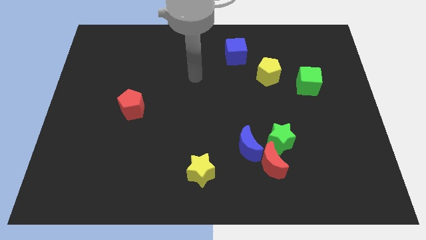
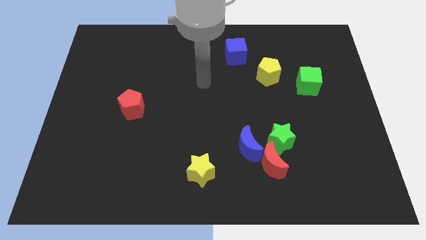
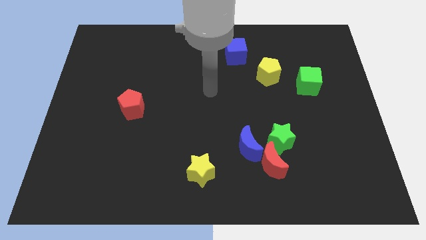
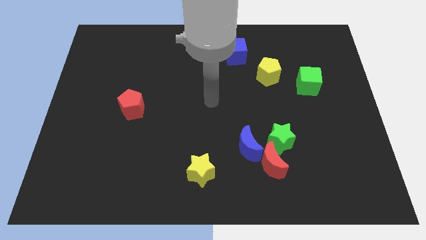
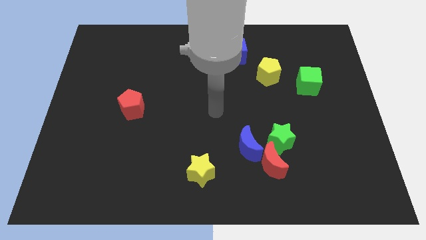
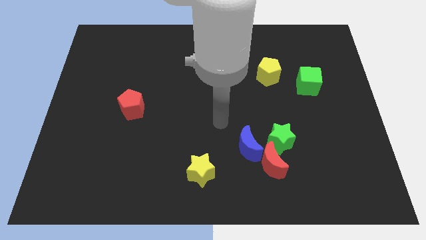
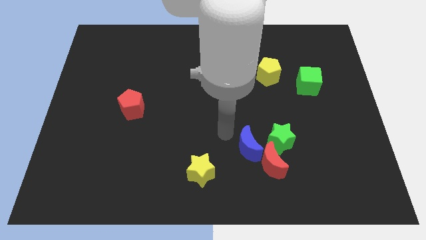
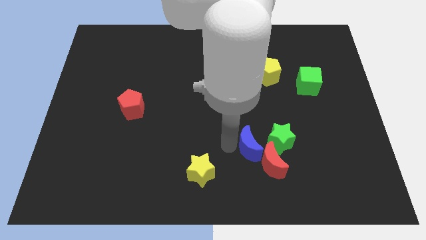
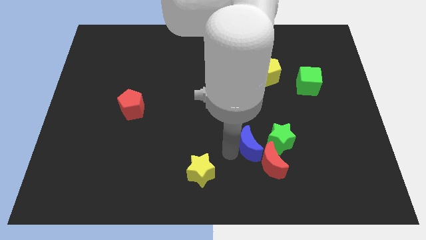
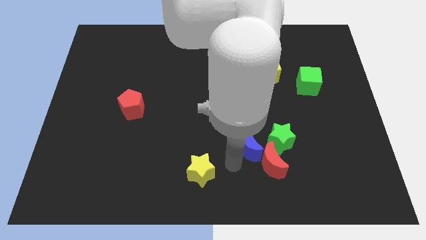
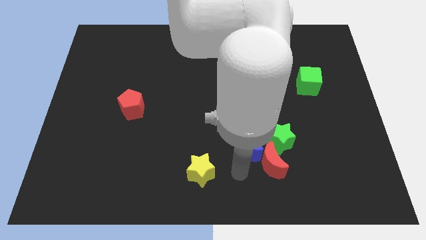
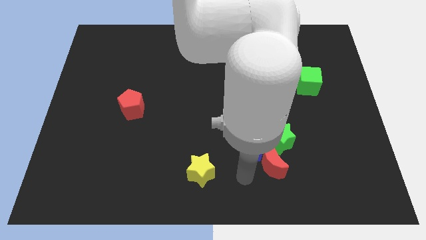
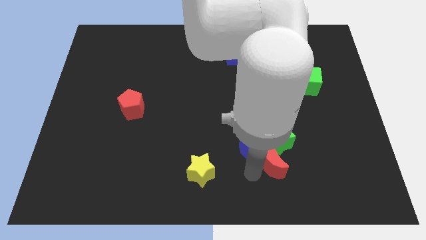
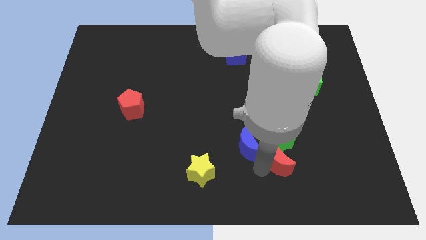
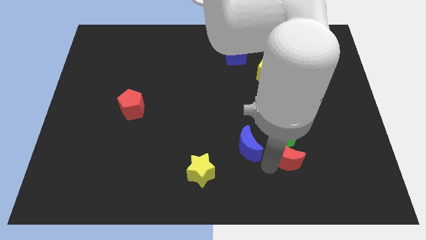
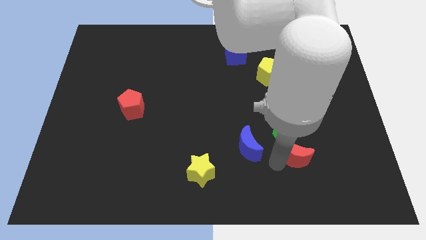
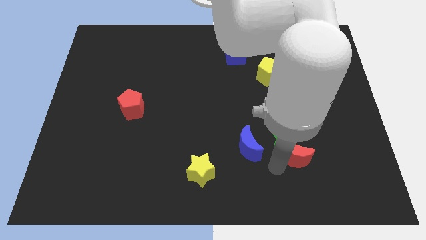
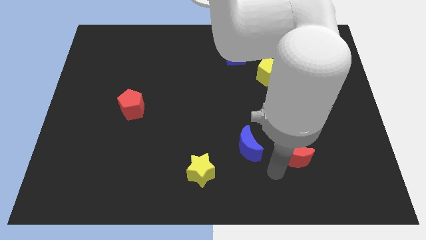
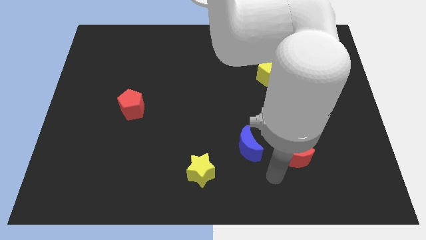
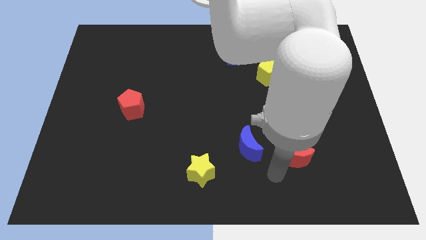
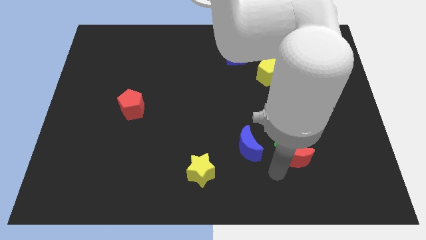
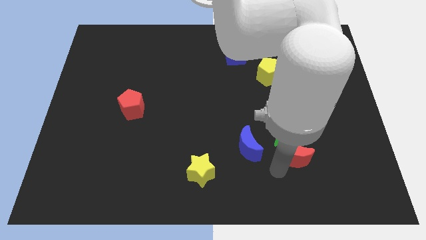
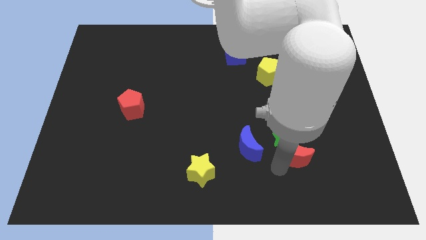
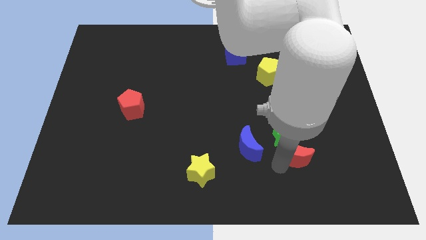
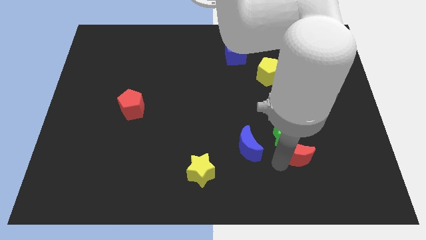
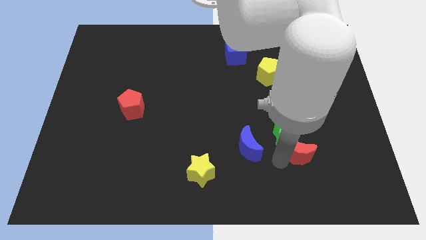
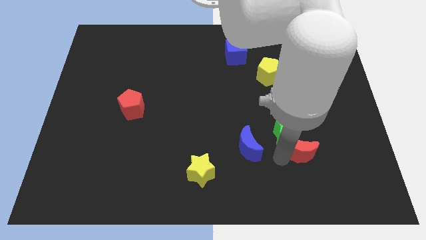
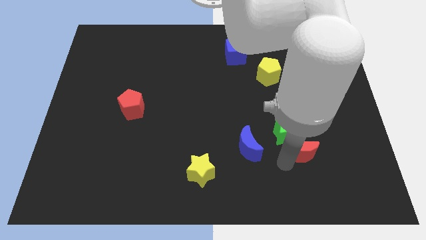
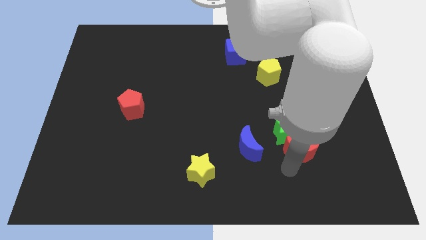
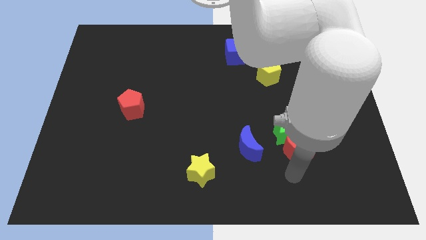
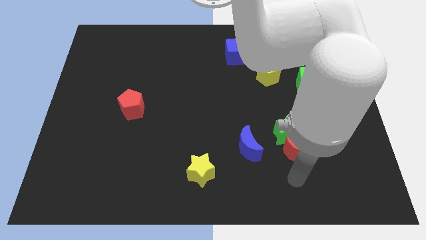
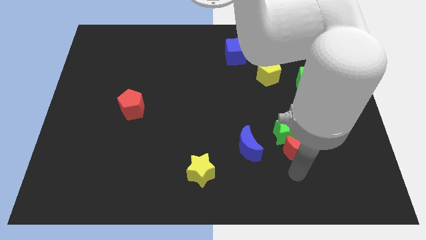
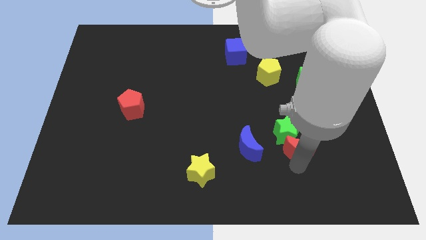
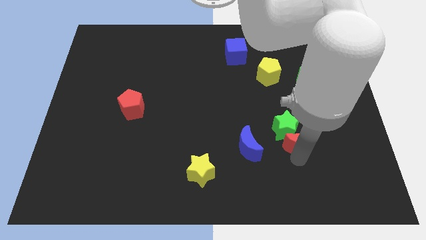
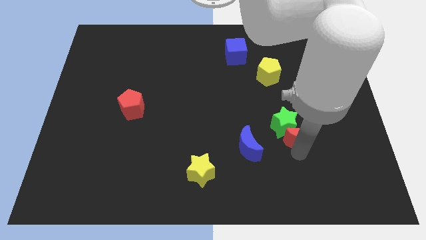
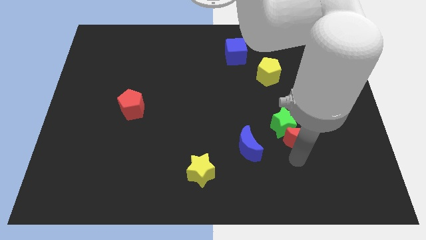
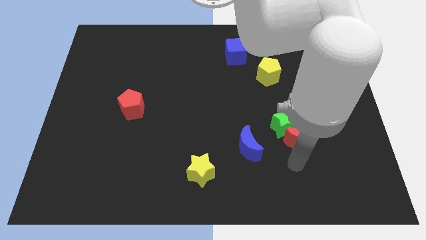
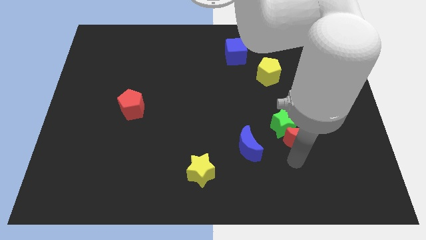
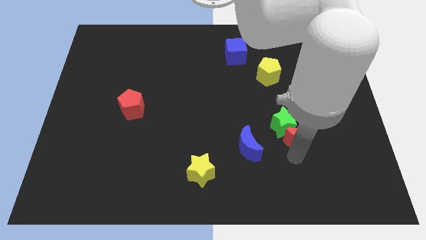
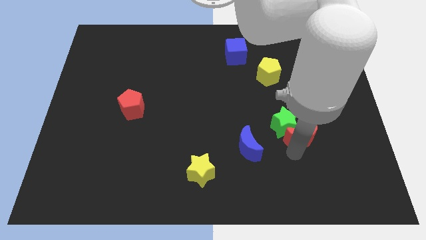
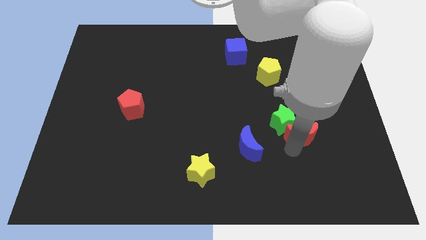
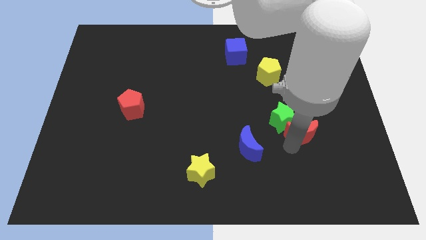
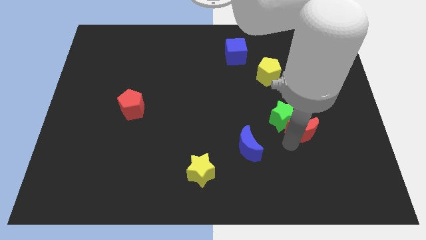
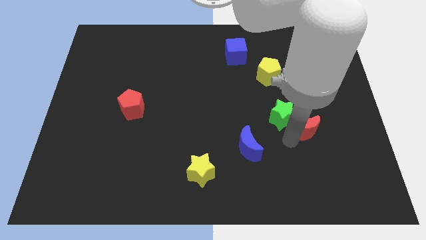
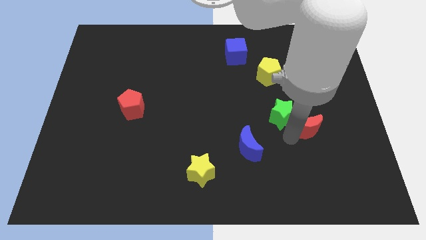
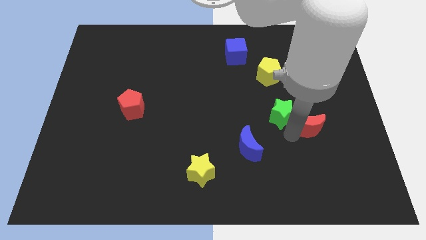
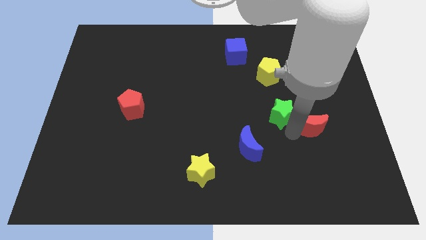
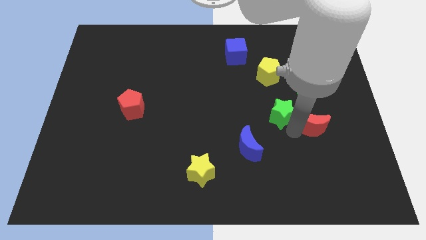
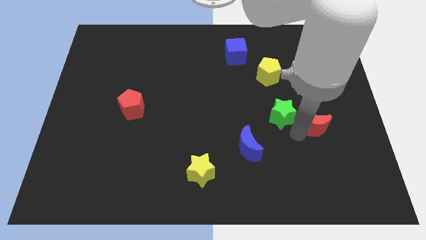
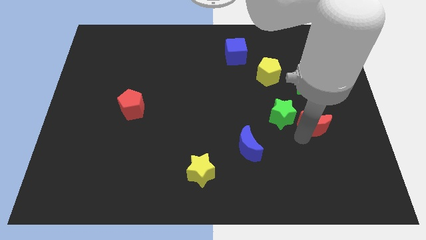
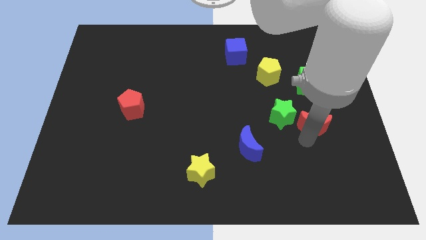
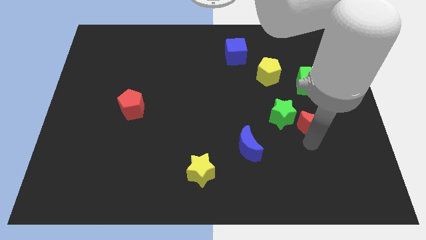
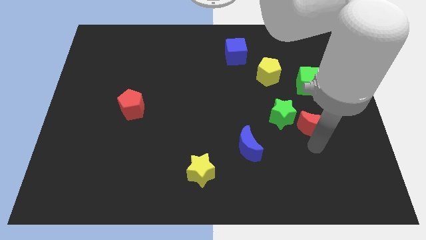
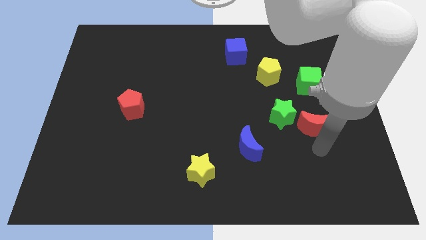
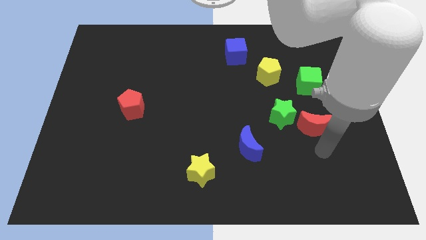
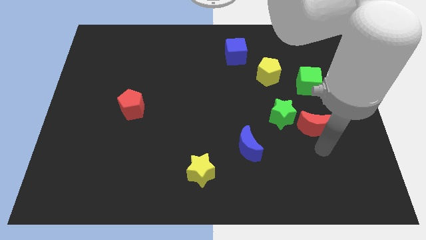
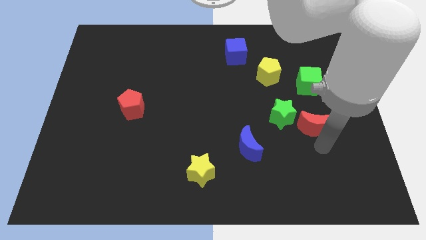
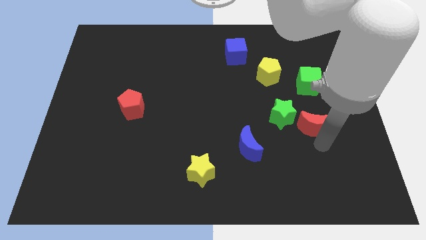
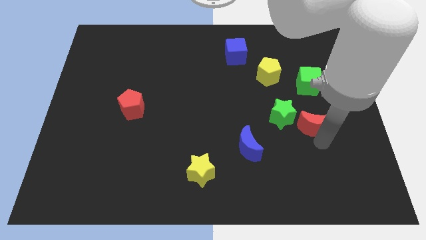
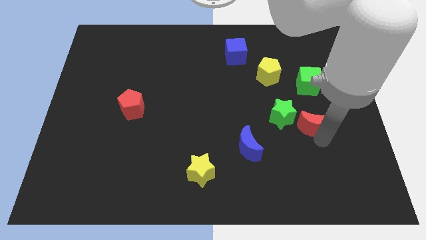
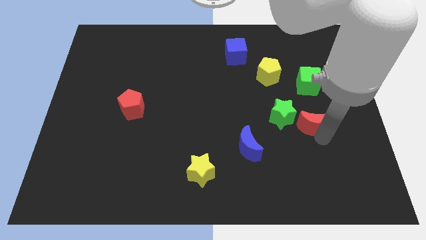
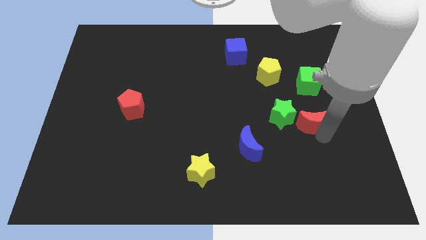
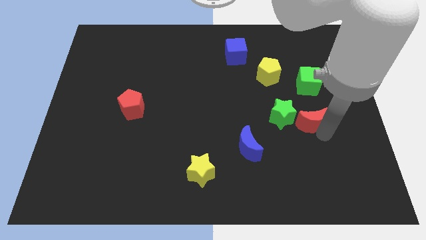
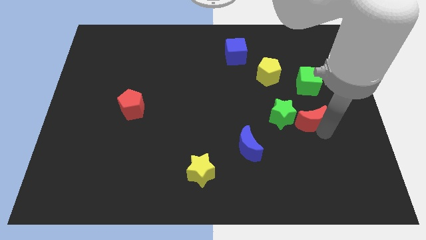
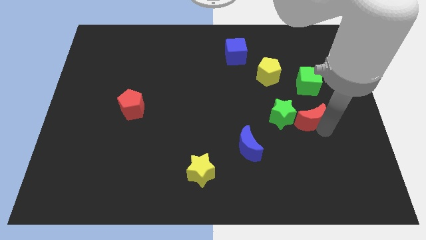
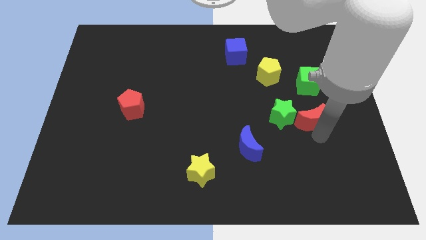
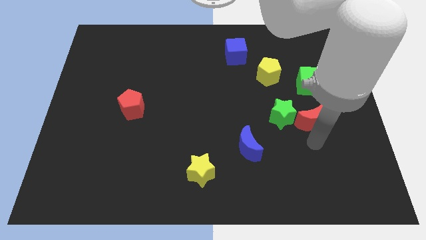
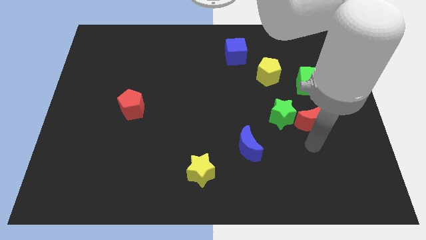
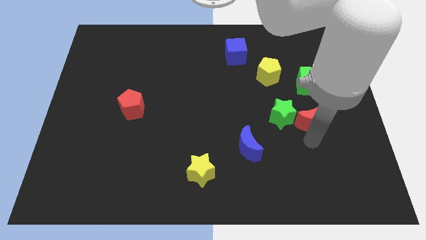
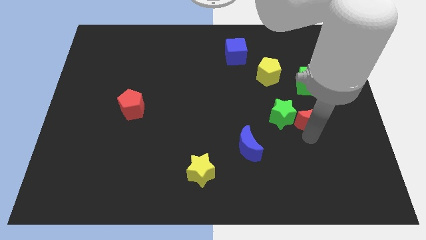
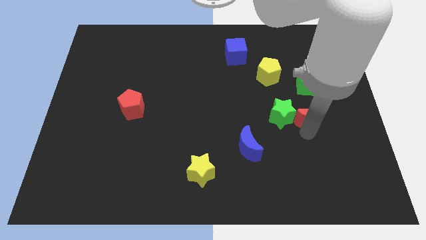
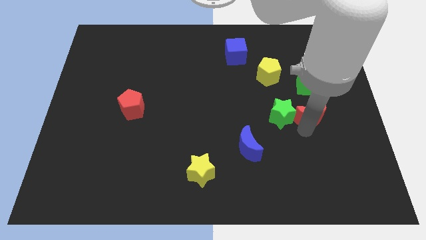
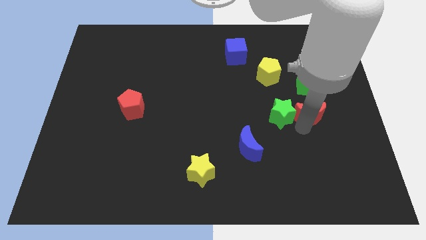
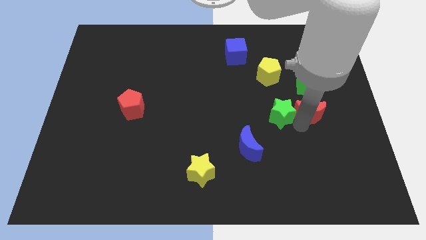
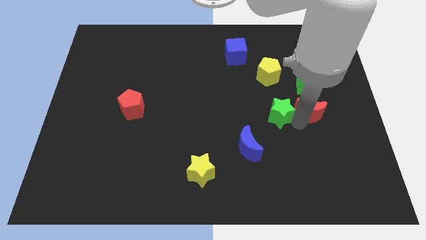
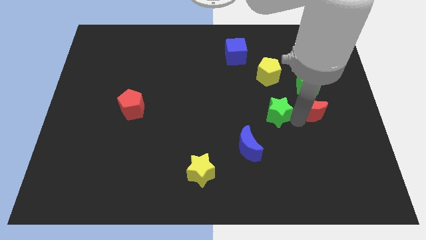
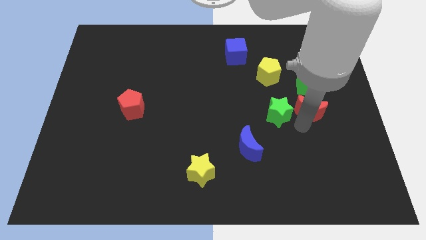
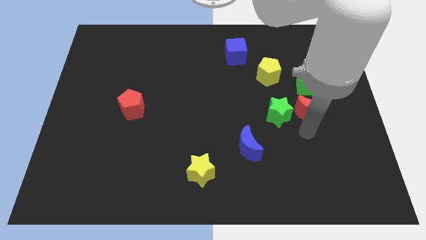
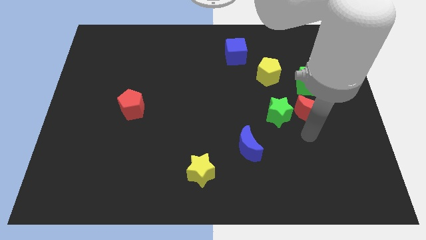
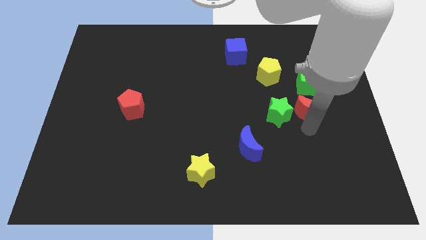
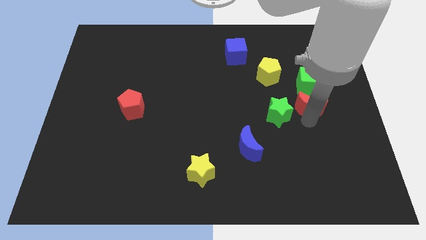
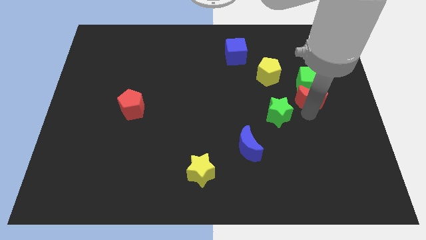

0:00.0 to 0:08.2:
move the red moon to the green cube
